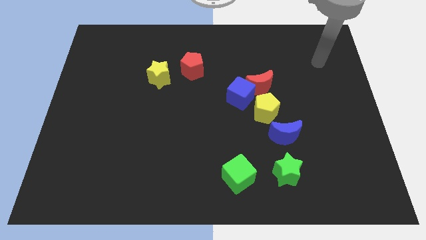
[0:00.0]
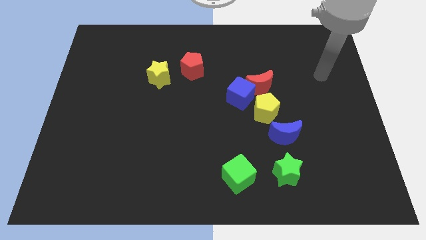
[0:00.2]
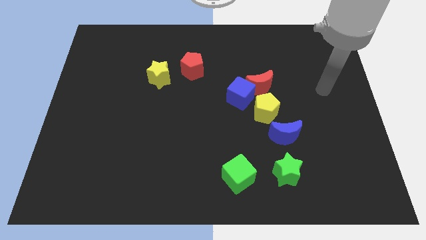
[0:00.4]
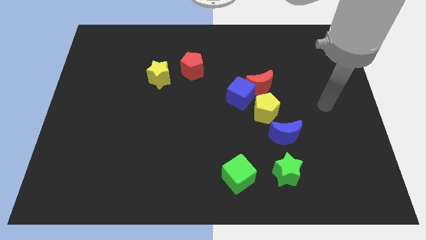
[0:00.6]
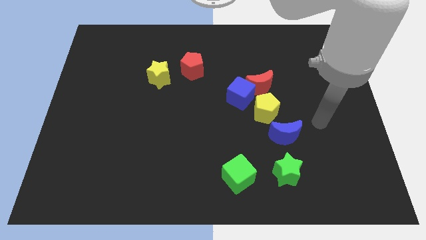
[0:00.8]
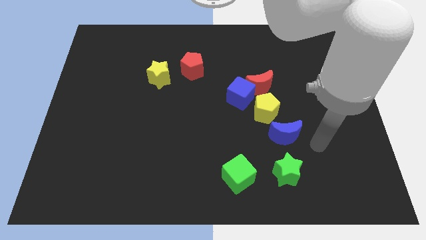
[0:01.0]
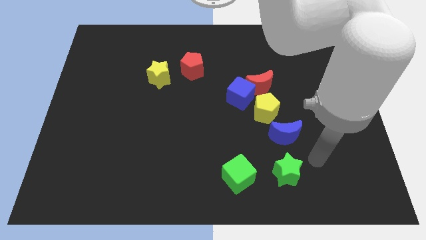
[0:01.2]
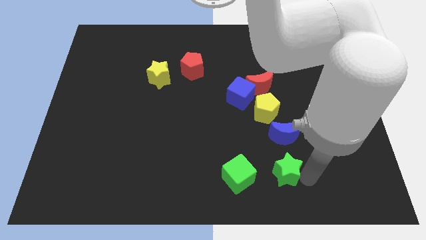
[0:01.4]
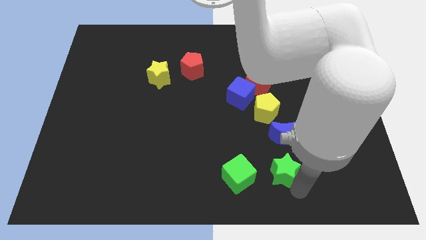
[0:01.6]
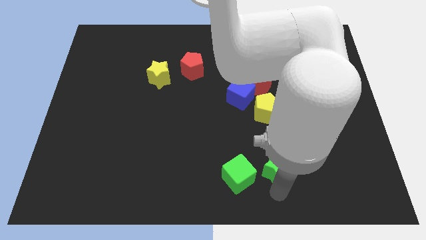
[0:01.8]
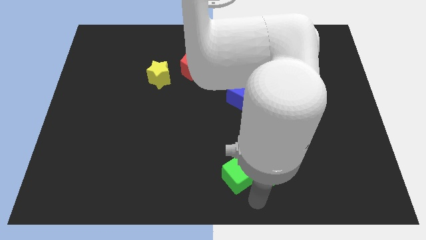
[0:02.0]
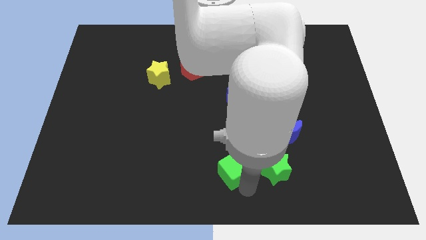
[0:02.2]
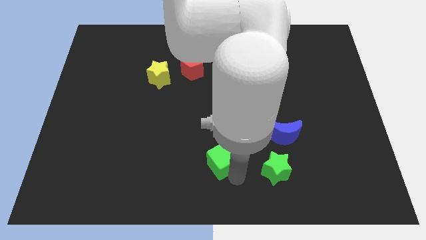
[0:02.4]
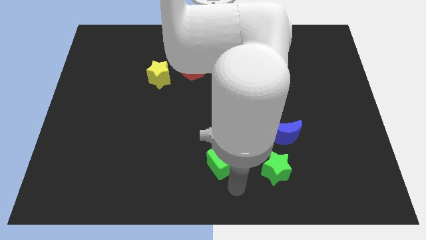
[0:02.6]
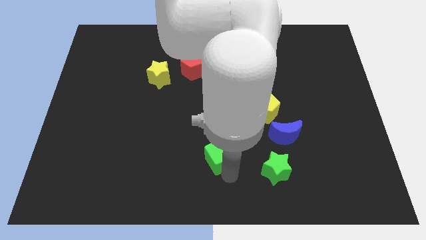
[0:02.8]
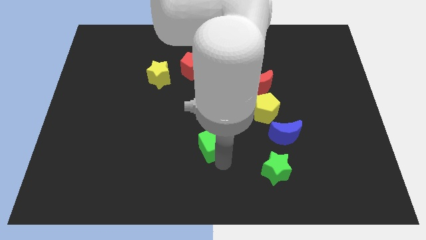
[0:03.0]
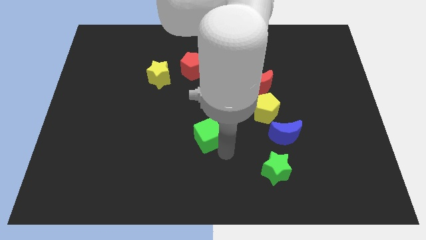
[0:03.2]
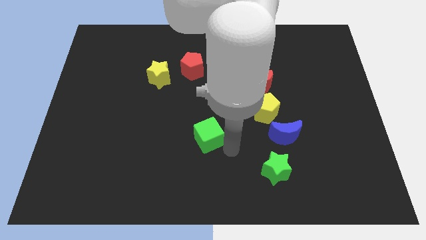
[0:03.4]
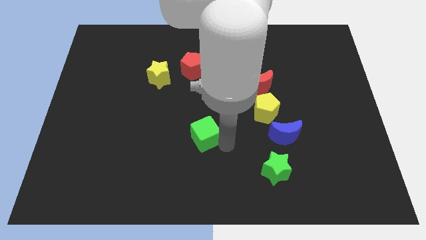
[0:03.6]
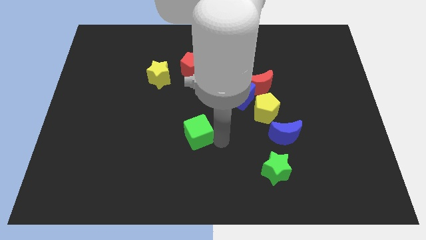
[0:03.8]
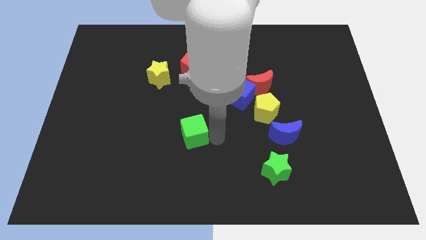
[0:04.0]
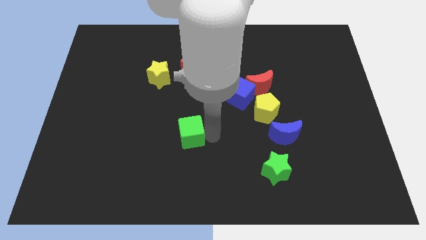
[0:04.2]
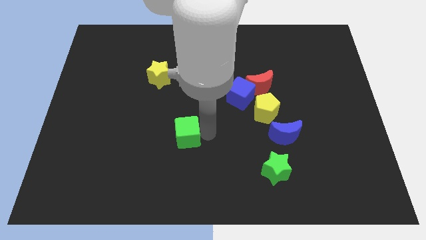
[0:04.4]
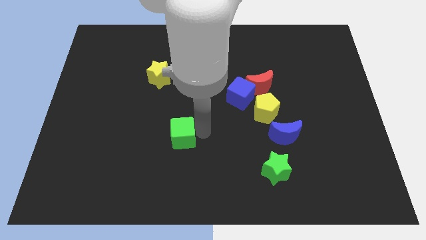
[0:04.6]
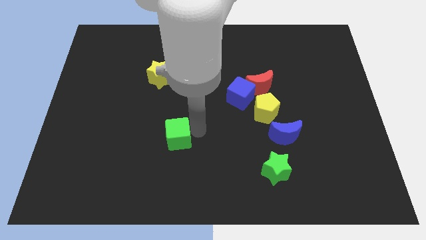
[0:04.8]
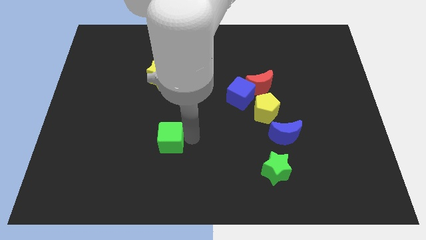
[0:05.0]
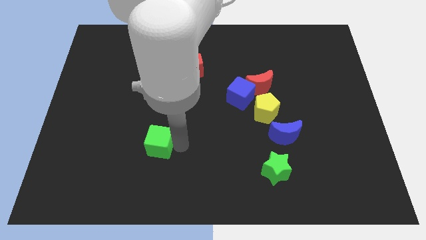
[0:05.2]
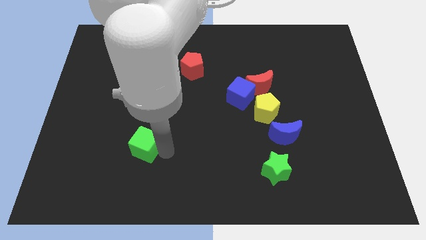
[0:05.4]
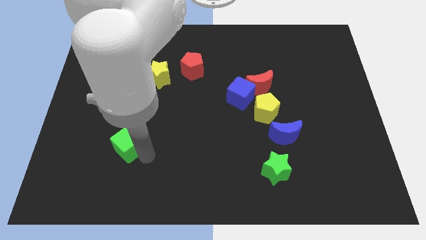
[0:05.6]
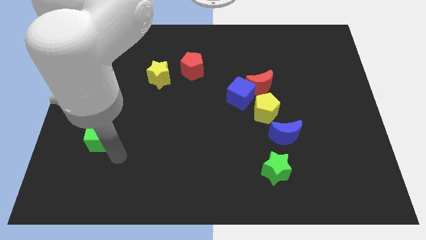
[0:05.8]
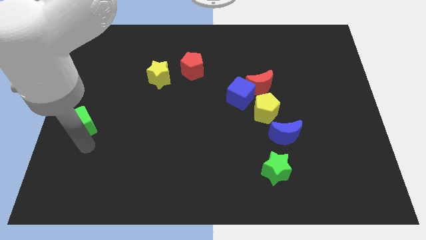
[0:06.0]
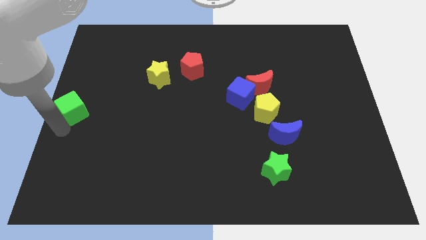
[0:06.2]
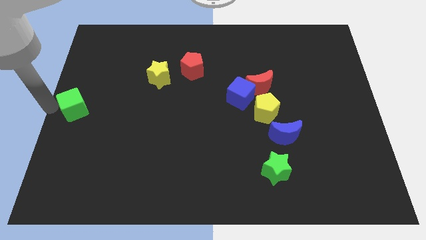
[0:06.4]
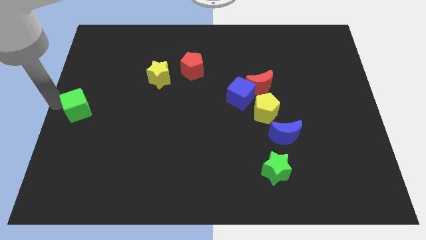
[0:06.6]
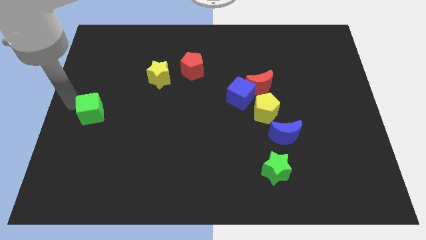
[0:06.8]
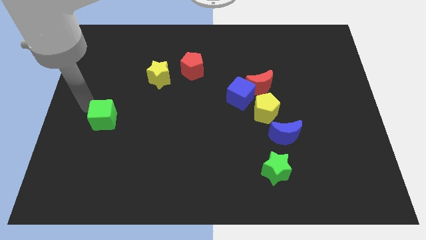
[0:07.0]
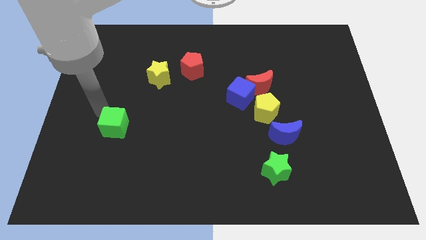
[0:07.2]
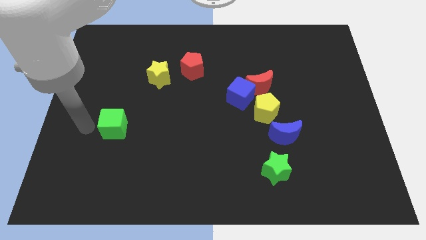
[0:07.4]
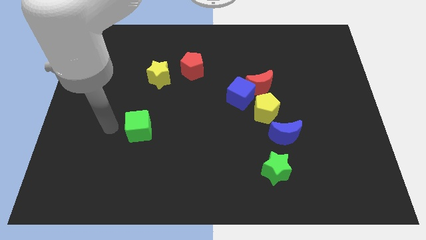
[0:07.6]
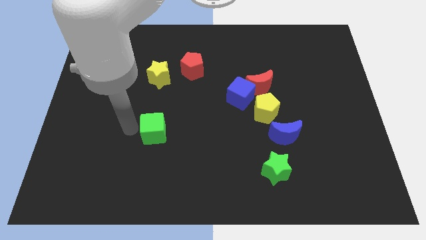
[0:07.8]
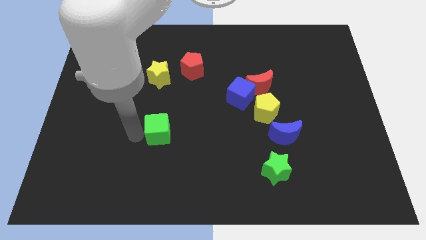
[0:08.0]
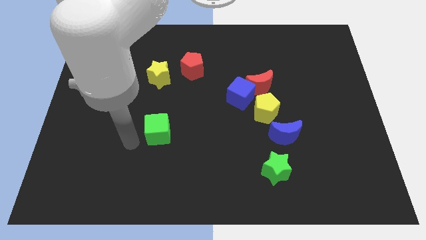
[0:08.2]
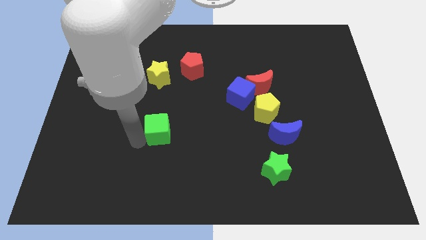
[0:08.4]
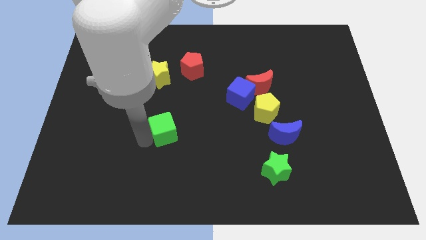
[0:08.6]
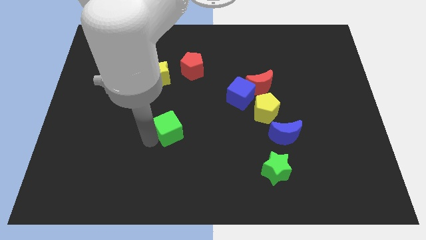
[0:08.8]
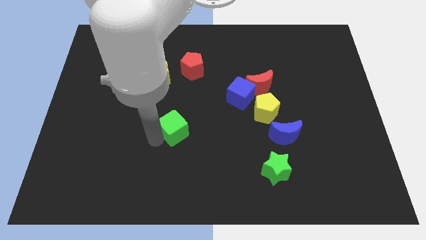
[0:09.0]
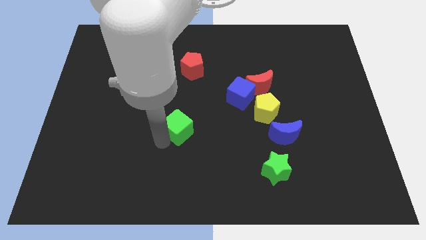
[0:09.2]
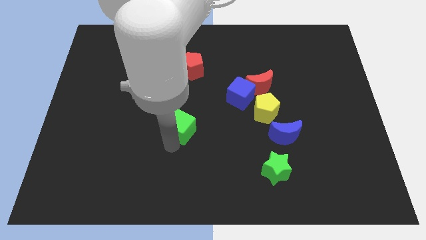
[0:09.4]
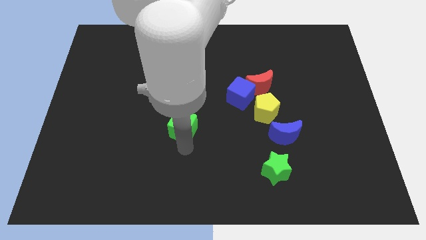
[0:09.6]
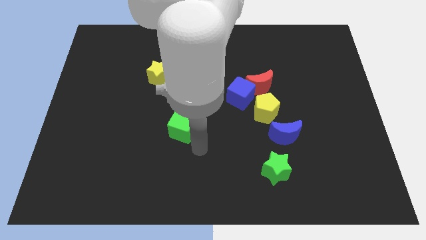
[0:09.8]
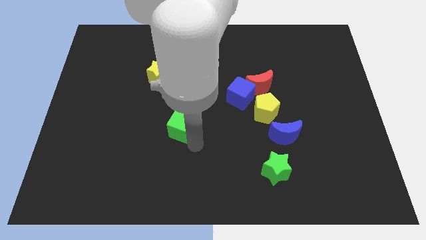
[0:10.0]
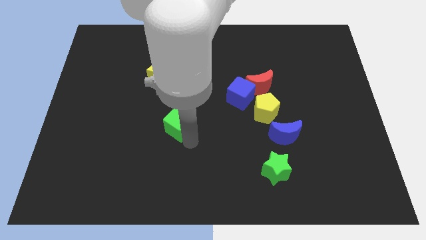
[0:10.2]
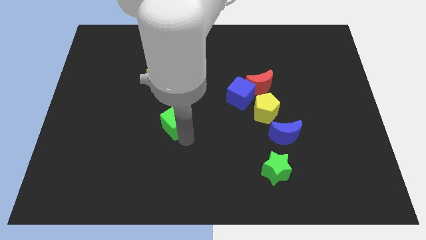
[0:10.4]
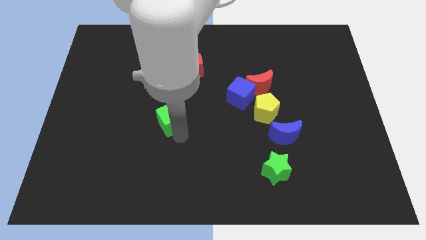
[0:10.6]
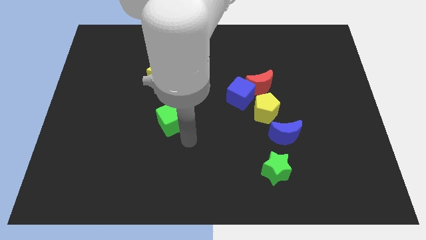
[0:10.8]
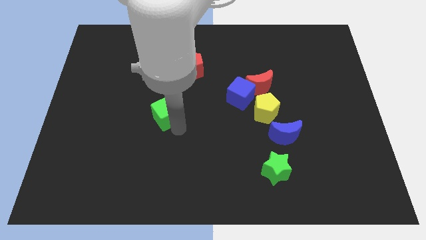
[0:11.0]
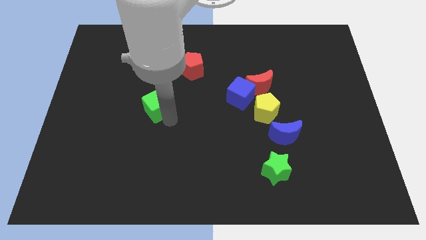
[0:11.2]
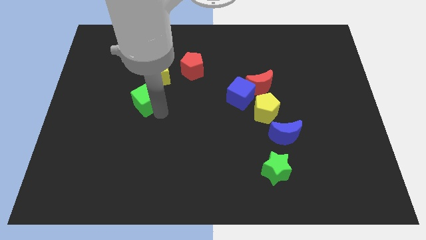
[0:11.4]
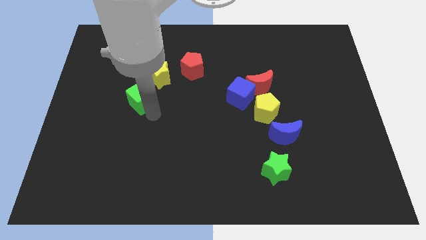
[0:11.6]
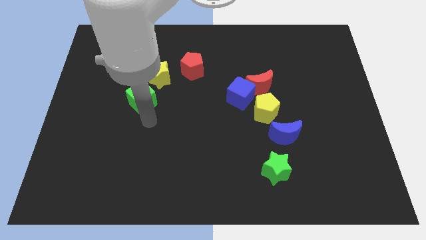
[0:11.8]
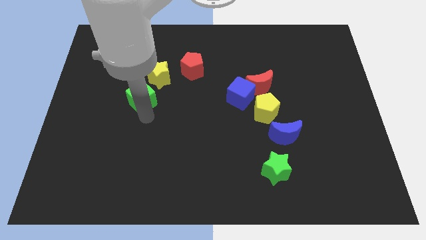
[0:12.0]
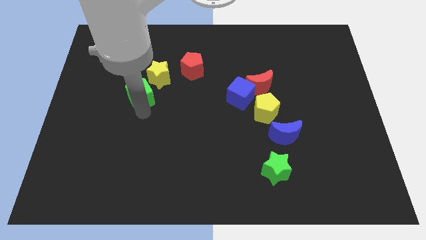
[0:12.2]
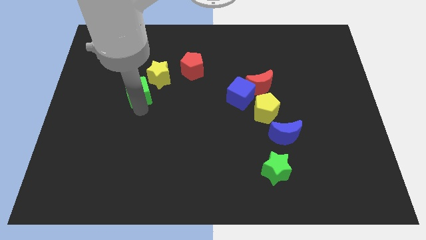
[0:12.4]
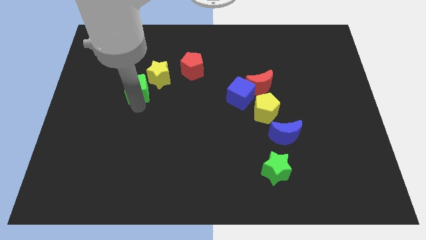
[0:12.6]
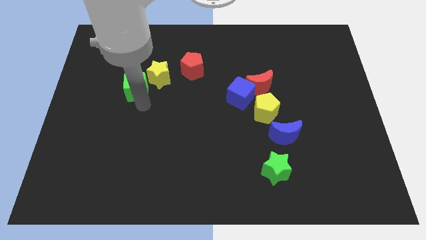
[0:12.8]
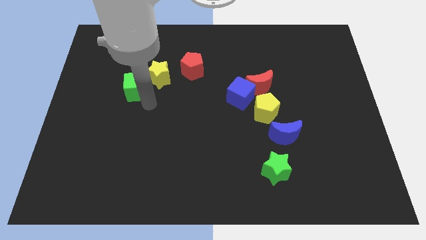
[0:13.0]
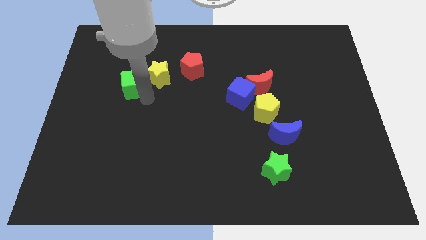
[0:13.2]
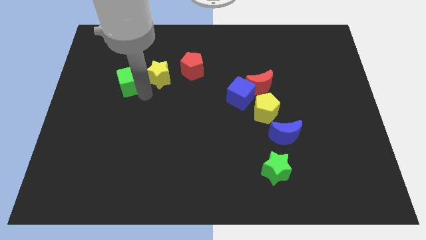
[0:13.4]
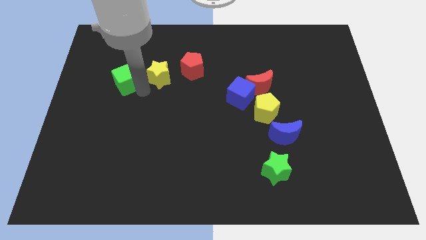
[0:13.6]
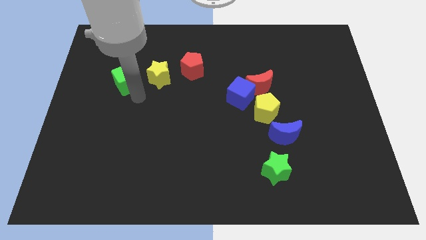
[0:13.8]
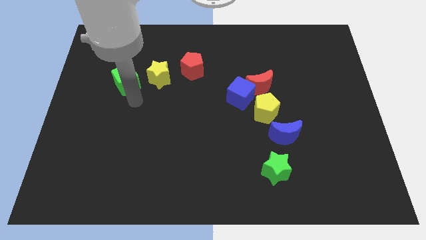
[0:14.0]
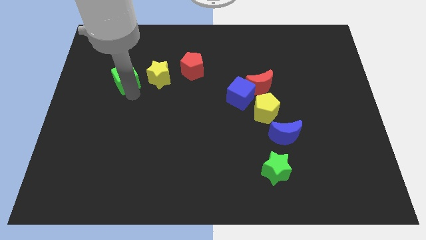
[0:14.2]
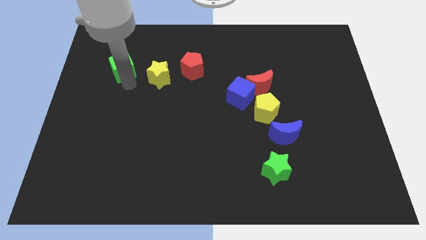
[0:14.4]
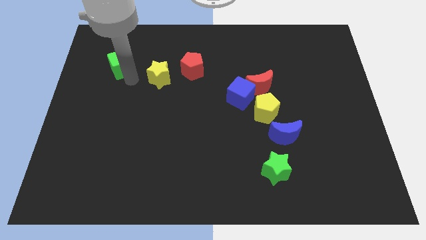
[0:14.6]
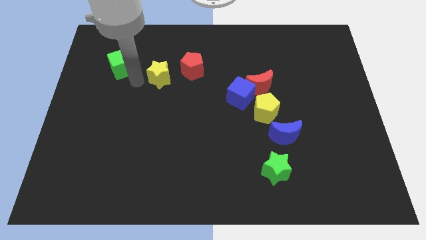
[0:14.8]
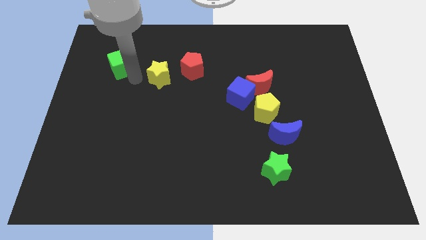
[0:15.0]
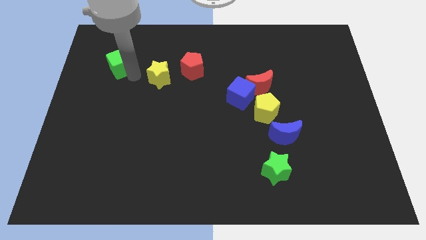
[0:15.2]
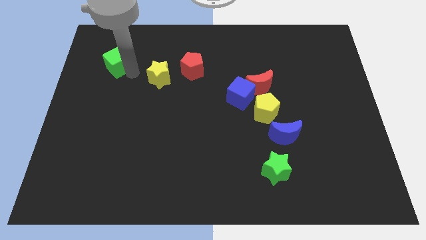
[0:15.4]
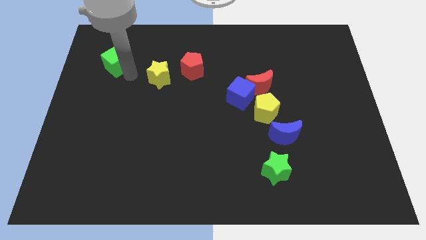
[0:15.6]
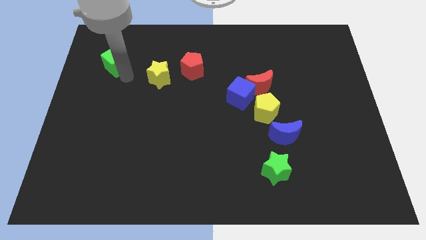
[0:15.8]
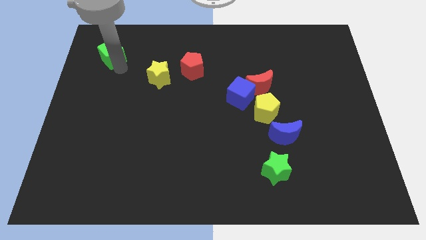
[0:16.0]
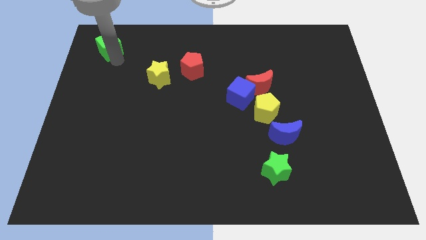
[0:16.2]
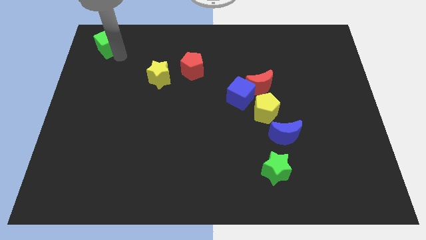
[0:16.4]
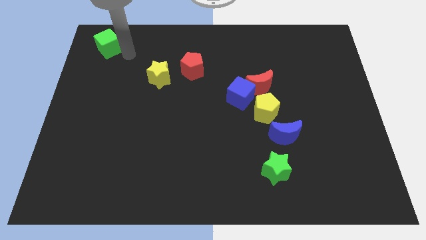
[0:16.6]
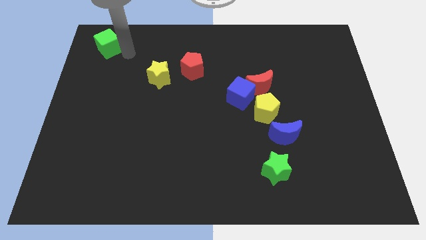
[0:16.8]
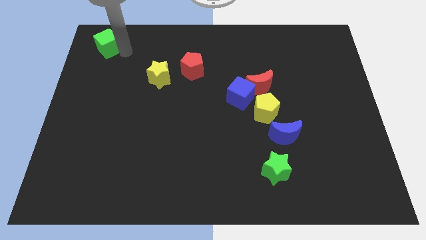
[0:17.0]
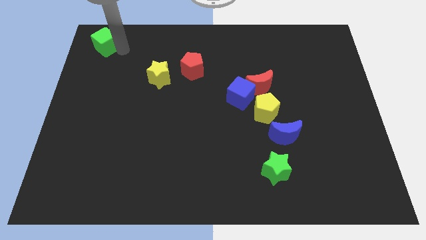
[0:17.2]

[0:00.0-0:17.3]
put the green cube to the top left of the board
